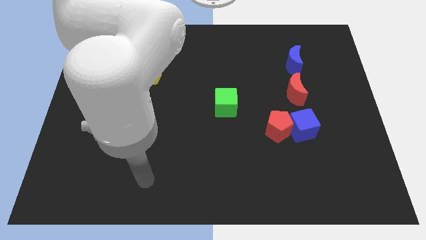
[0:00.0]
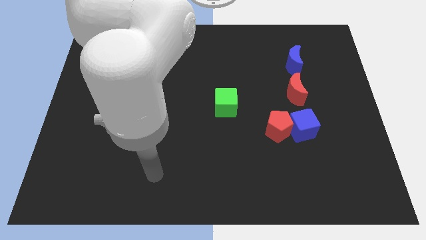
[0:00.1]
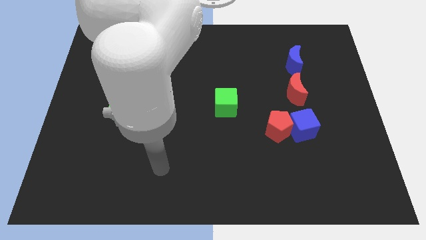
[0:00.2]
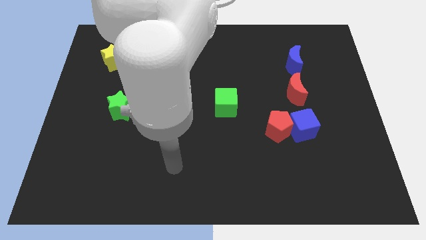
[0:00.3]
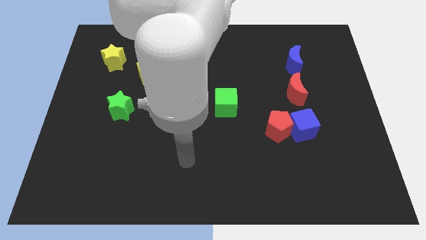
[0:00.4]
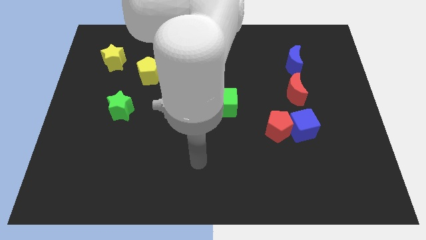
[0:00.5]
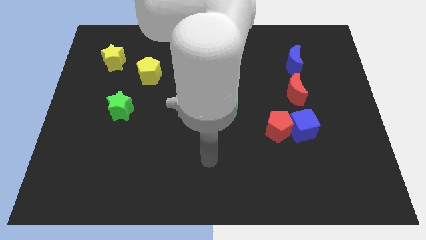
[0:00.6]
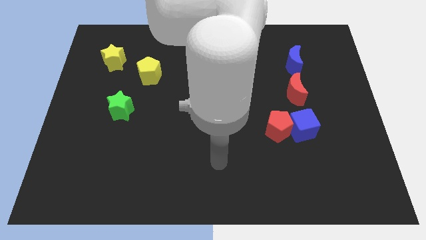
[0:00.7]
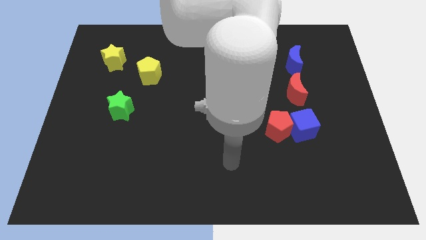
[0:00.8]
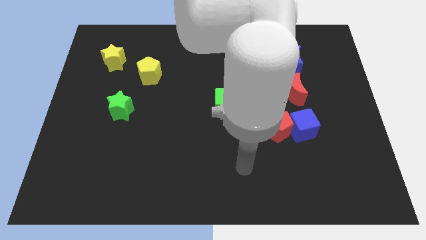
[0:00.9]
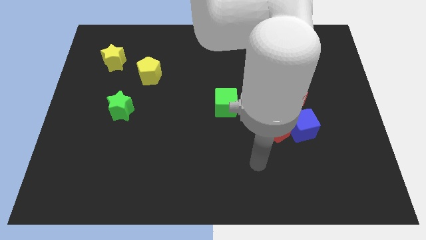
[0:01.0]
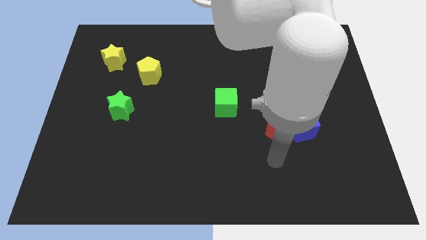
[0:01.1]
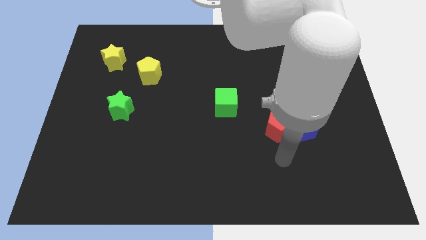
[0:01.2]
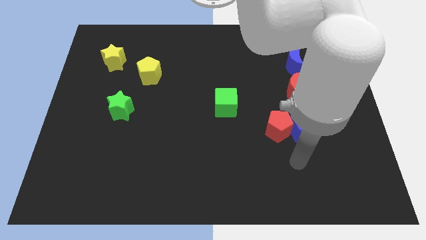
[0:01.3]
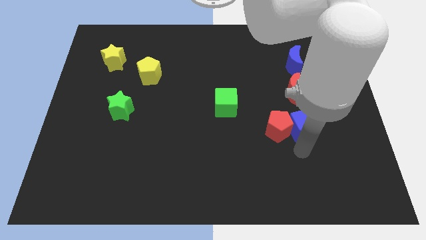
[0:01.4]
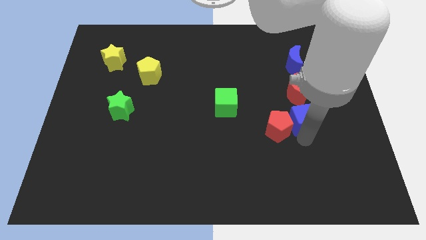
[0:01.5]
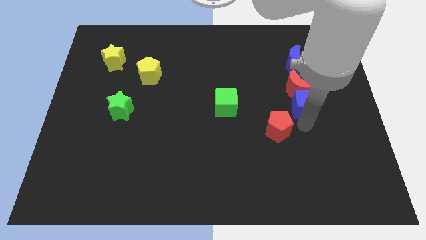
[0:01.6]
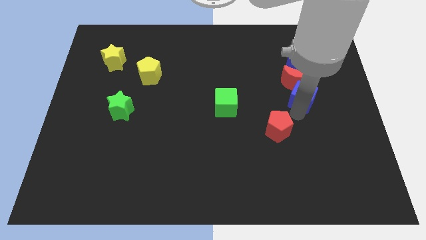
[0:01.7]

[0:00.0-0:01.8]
pull the red pentagon apart from the blue cube

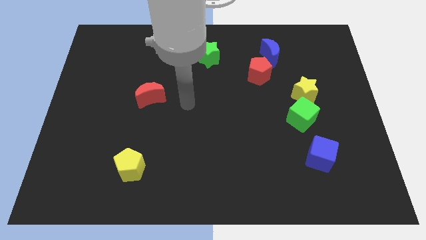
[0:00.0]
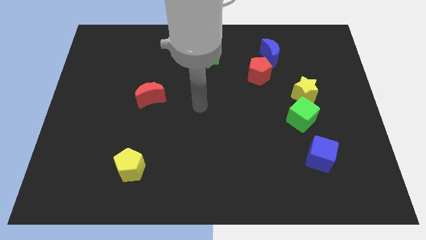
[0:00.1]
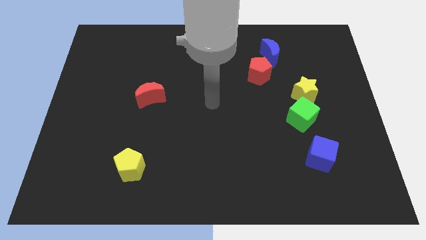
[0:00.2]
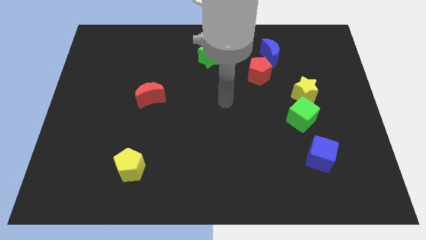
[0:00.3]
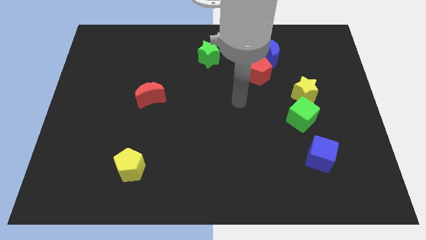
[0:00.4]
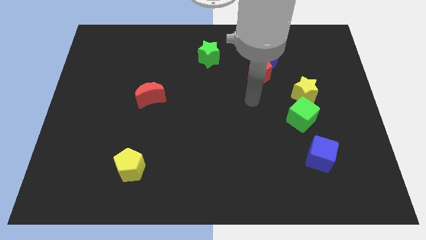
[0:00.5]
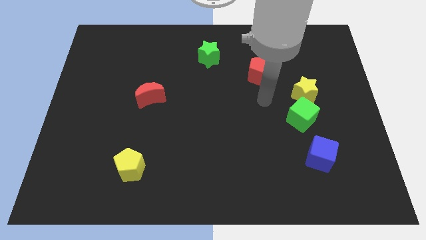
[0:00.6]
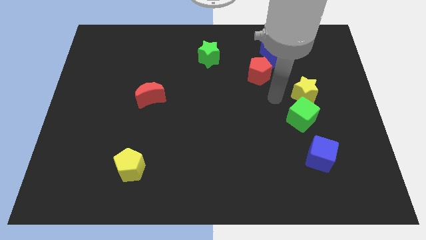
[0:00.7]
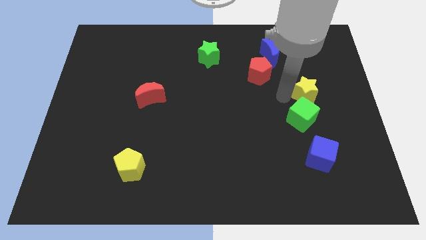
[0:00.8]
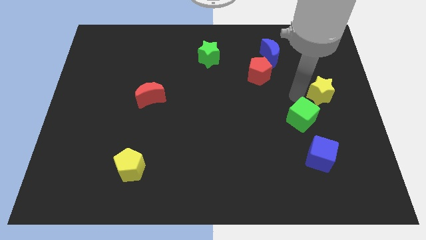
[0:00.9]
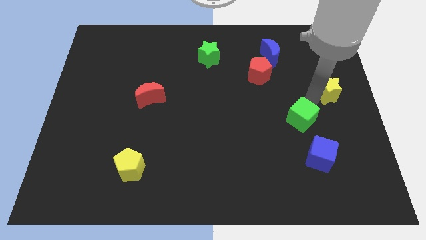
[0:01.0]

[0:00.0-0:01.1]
separate the green cube from the yellow star

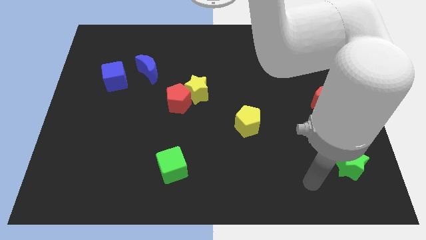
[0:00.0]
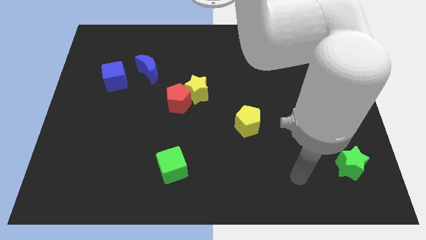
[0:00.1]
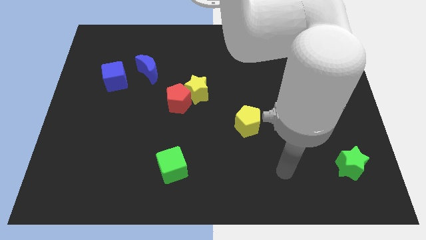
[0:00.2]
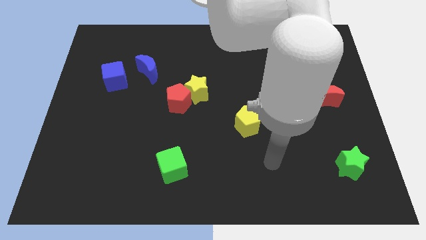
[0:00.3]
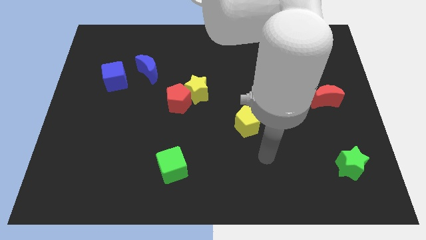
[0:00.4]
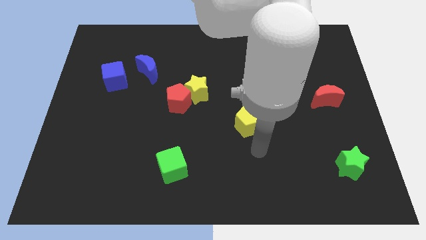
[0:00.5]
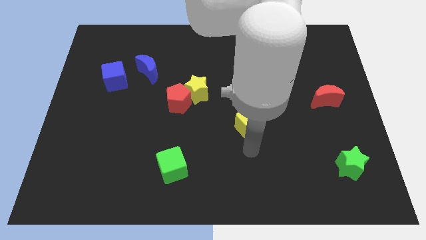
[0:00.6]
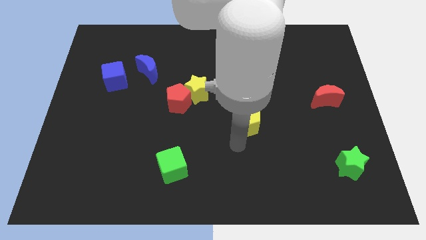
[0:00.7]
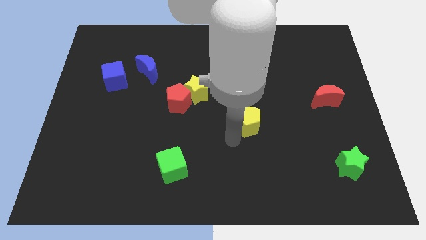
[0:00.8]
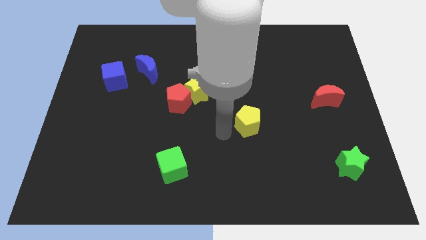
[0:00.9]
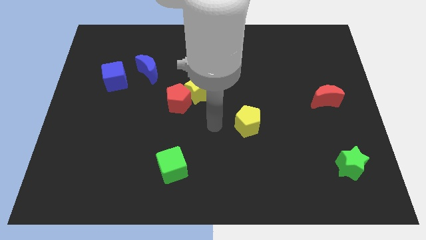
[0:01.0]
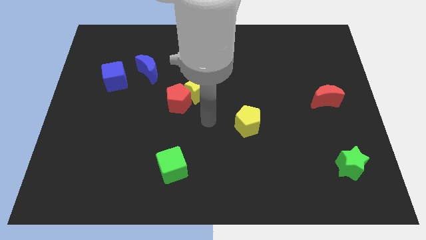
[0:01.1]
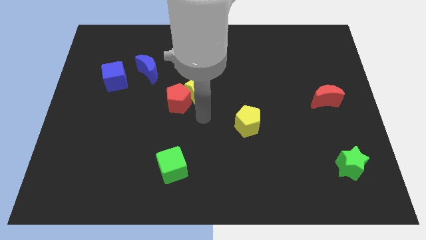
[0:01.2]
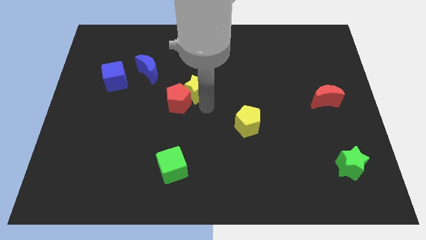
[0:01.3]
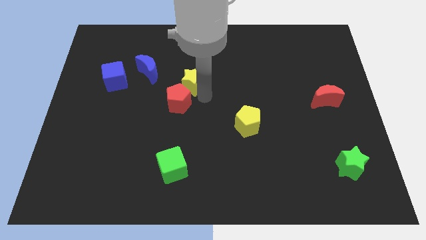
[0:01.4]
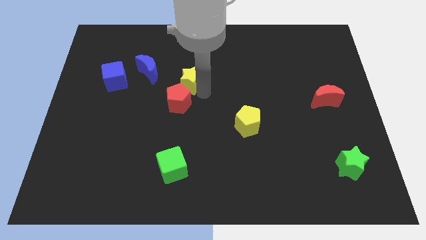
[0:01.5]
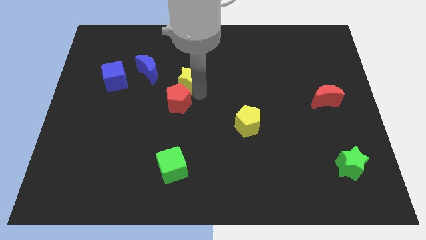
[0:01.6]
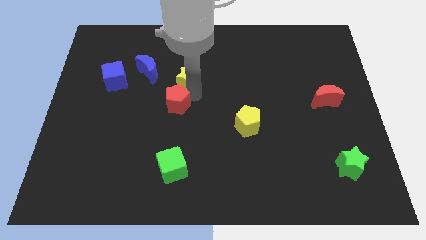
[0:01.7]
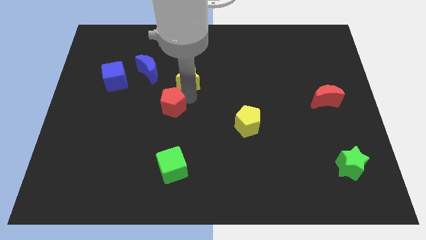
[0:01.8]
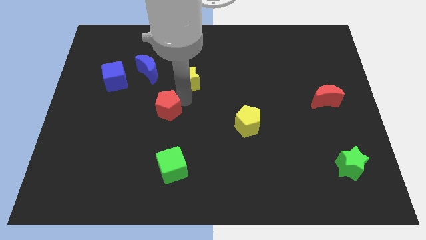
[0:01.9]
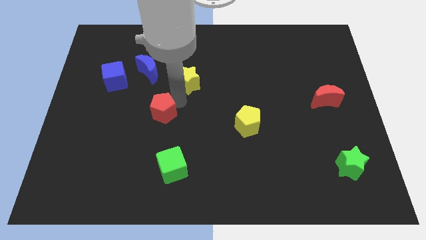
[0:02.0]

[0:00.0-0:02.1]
pull the red pentagon apart from the yellow star

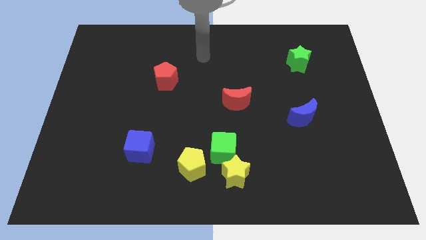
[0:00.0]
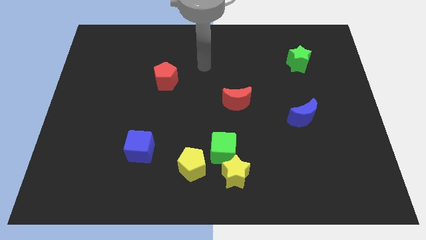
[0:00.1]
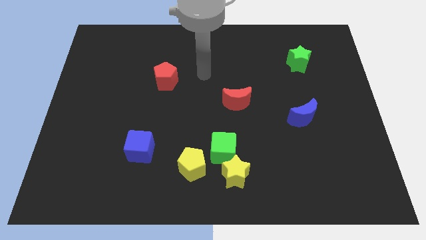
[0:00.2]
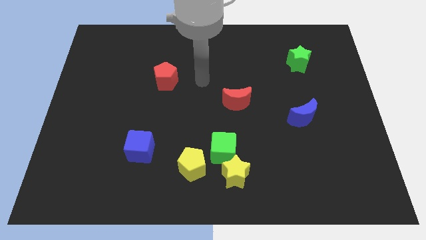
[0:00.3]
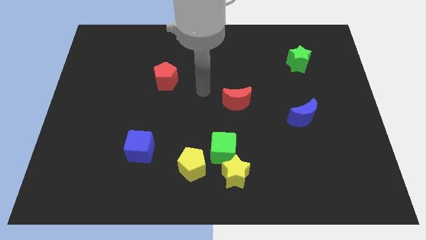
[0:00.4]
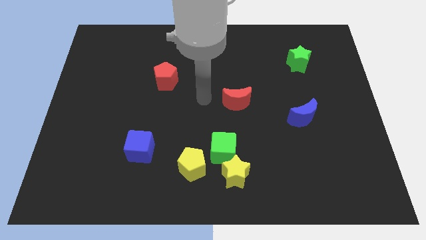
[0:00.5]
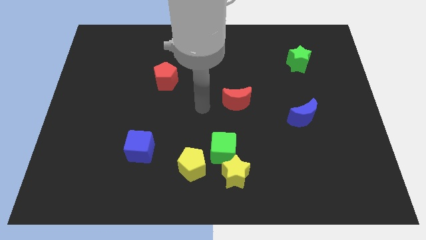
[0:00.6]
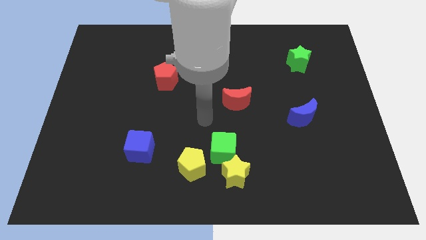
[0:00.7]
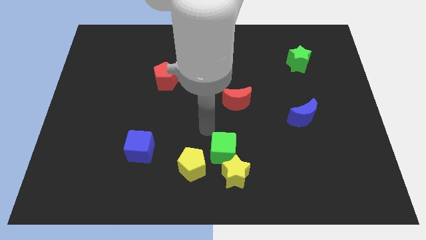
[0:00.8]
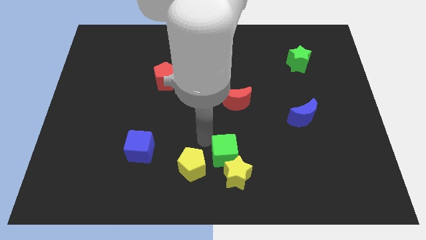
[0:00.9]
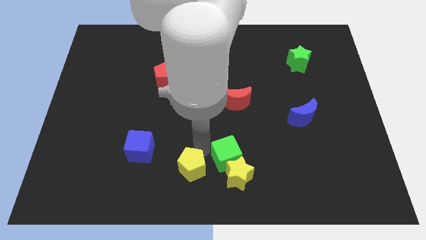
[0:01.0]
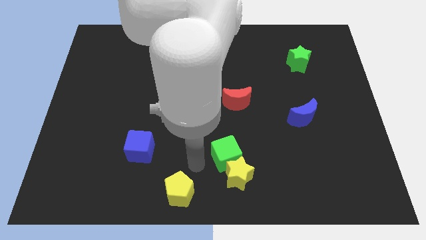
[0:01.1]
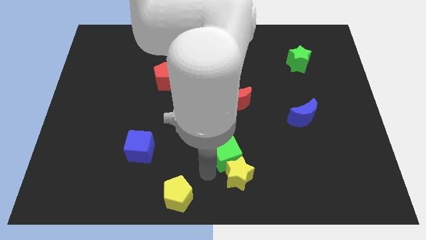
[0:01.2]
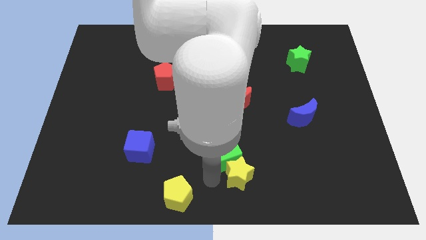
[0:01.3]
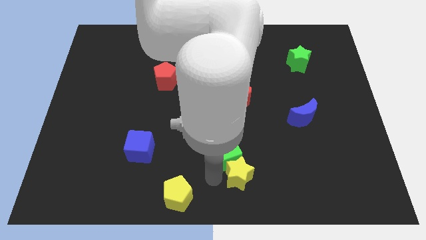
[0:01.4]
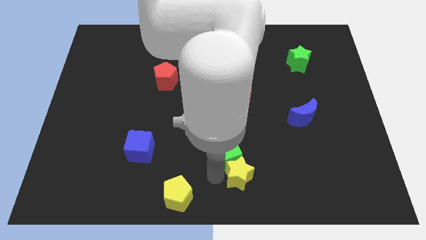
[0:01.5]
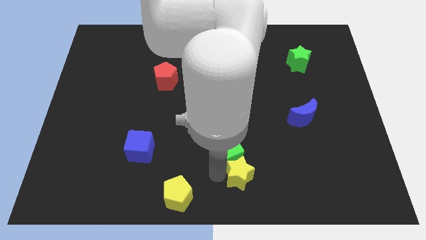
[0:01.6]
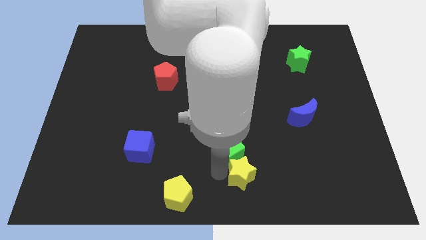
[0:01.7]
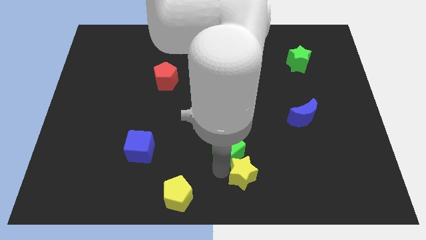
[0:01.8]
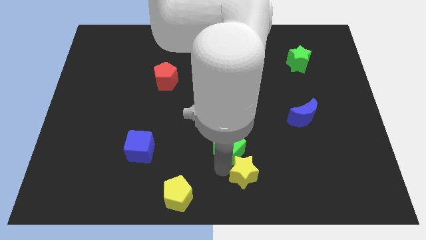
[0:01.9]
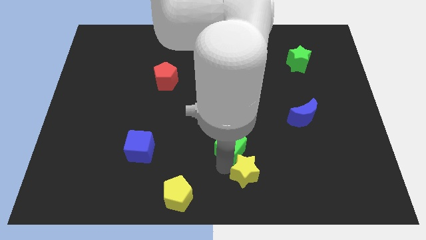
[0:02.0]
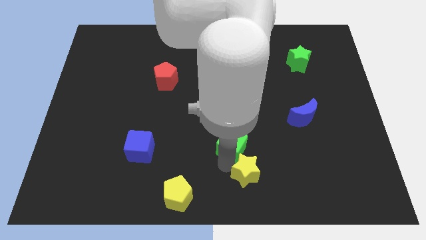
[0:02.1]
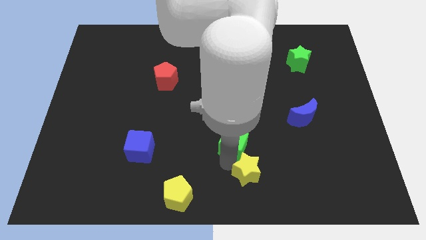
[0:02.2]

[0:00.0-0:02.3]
separate the green cube from the yellow star and yellow pentagon

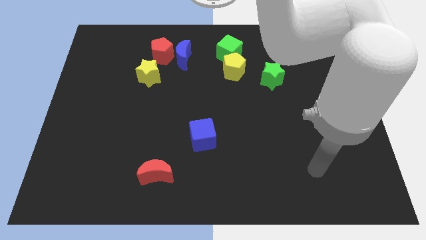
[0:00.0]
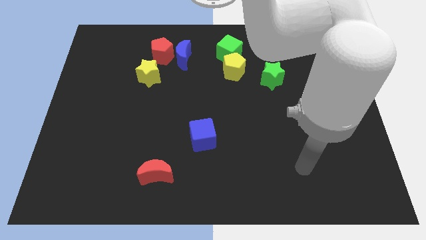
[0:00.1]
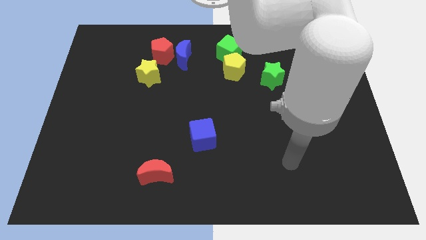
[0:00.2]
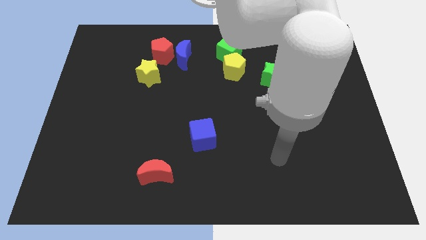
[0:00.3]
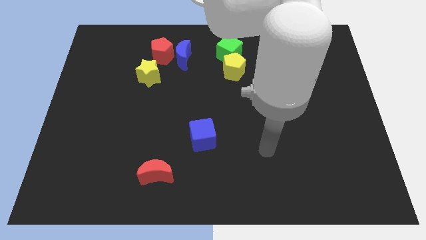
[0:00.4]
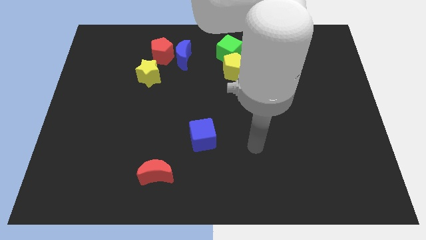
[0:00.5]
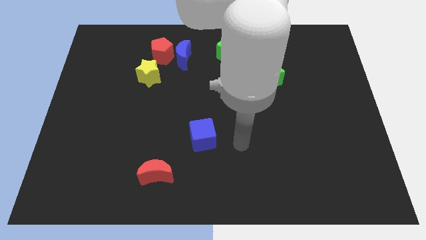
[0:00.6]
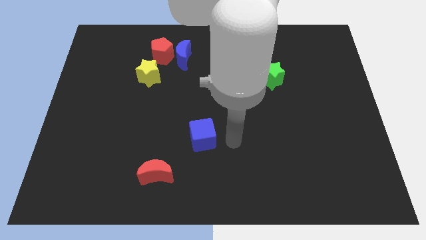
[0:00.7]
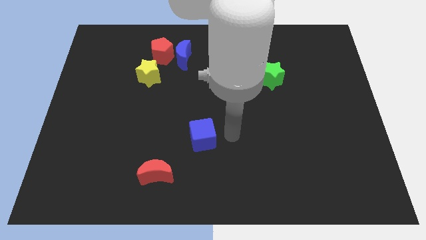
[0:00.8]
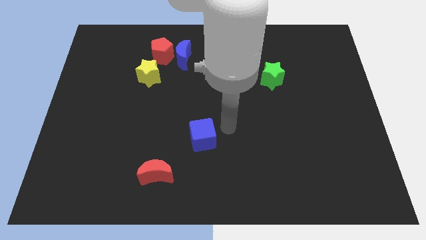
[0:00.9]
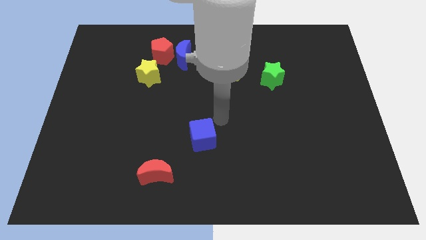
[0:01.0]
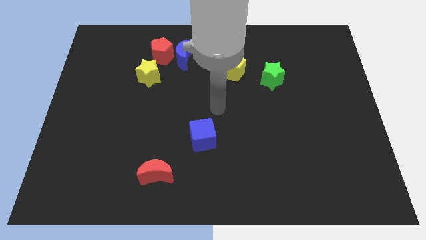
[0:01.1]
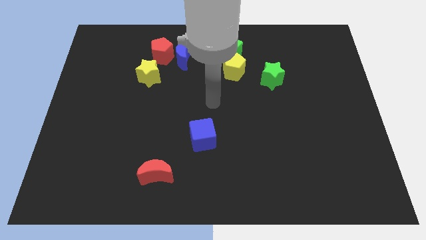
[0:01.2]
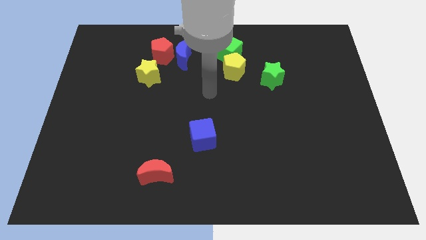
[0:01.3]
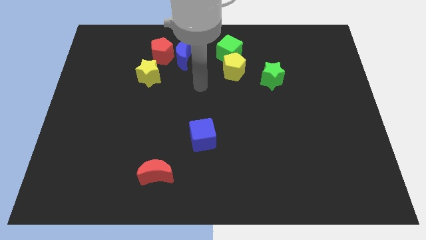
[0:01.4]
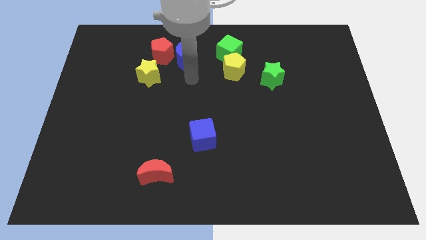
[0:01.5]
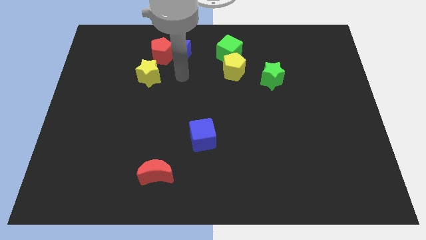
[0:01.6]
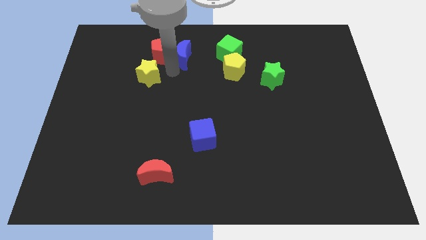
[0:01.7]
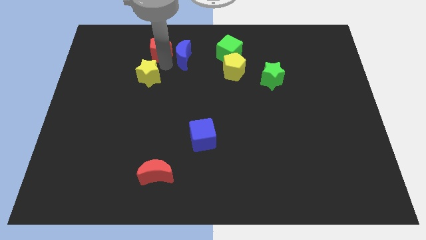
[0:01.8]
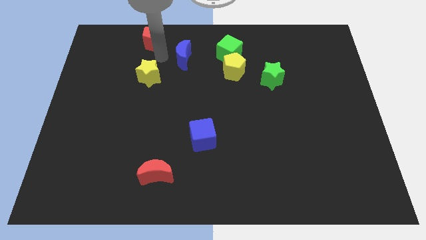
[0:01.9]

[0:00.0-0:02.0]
pull the blue moon apart from the red pentagon

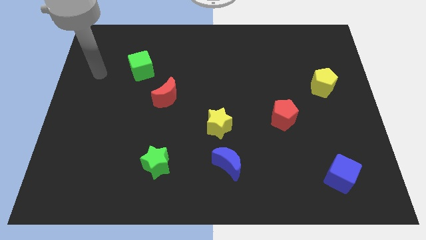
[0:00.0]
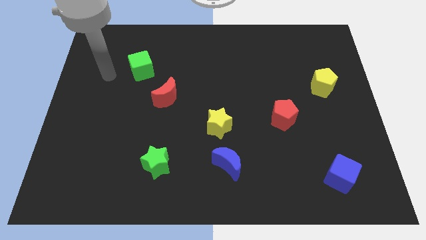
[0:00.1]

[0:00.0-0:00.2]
move the blue moon away from the yellow star
